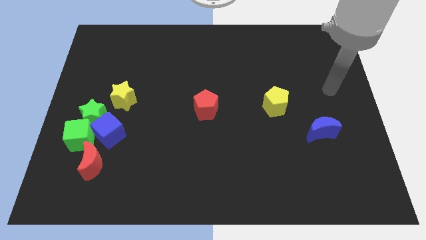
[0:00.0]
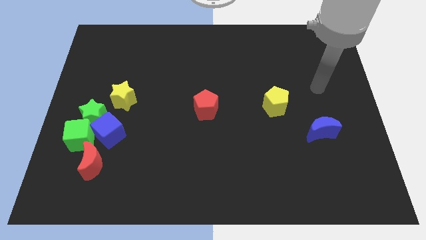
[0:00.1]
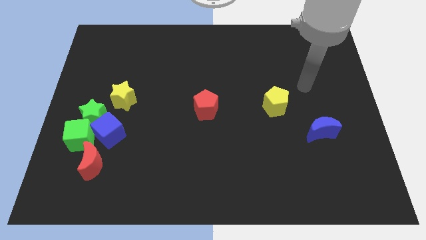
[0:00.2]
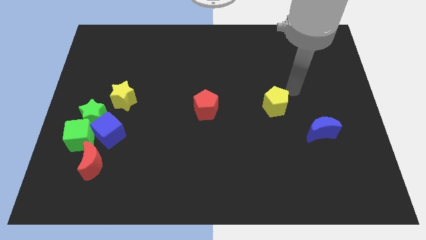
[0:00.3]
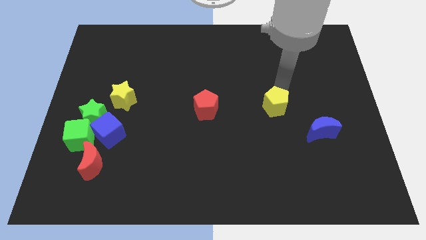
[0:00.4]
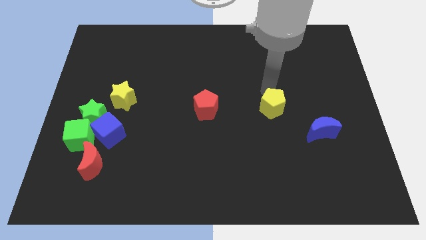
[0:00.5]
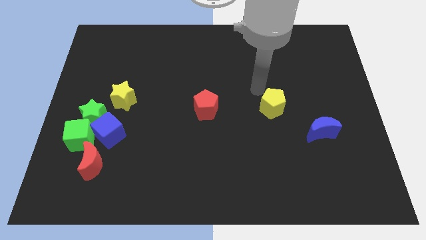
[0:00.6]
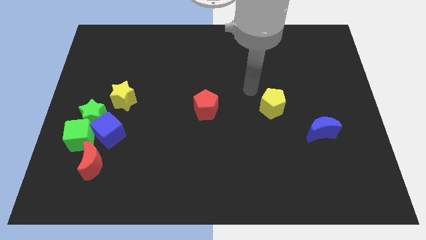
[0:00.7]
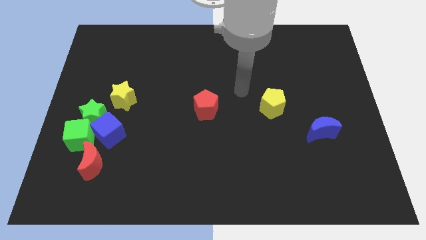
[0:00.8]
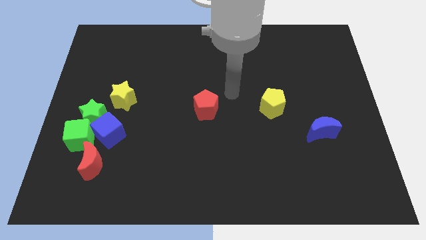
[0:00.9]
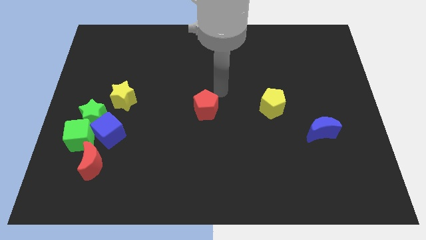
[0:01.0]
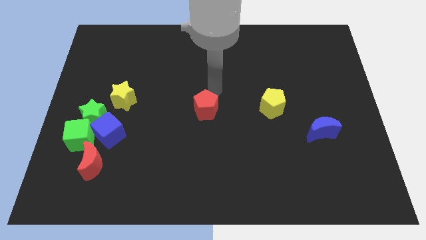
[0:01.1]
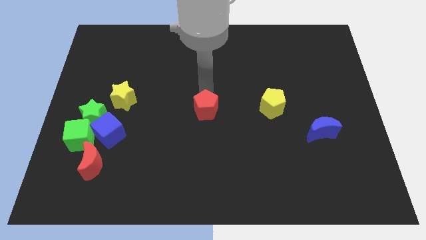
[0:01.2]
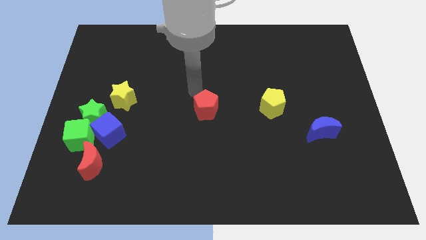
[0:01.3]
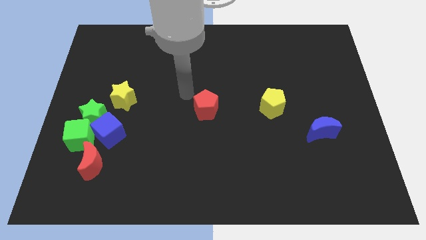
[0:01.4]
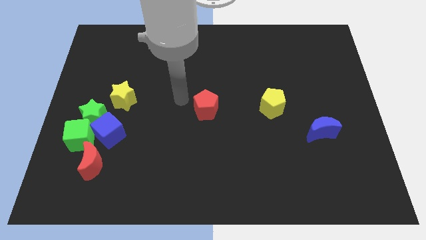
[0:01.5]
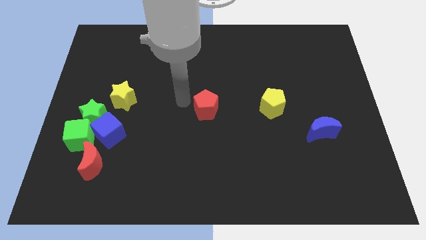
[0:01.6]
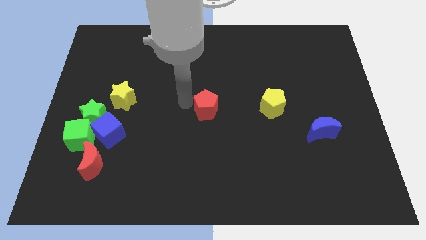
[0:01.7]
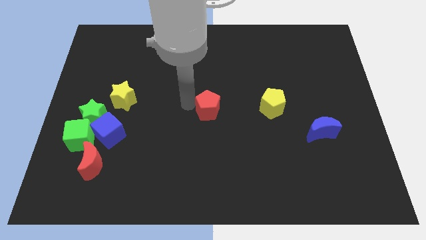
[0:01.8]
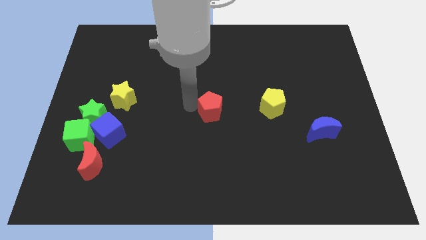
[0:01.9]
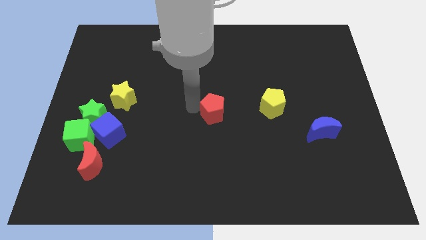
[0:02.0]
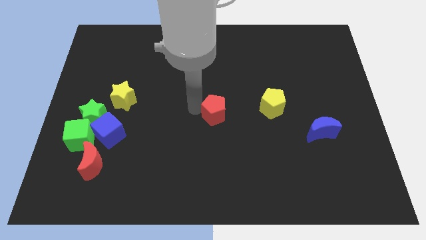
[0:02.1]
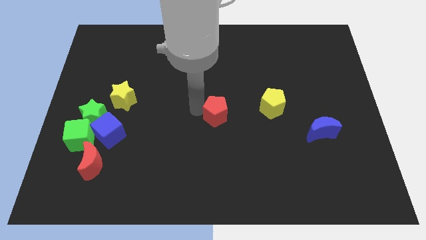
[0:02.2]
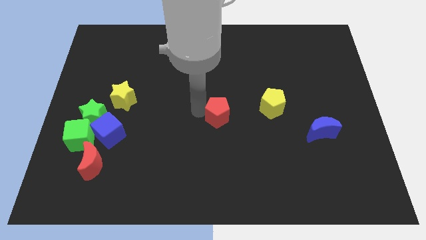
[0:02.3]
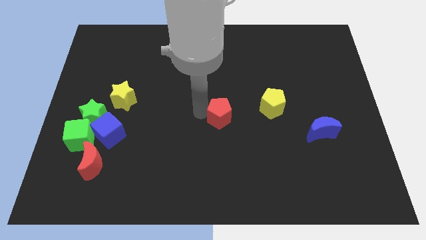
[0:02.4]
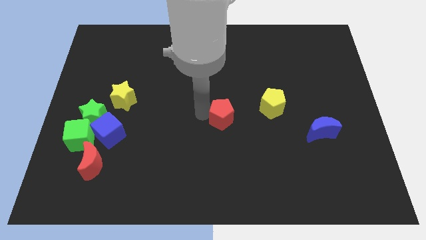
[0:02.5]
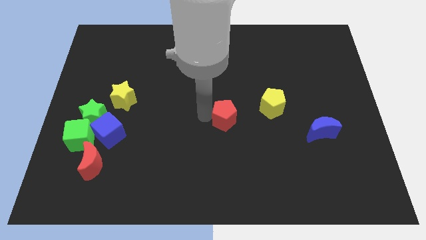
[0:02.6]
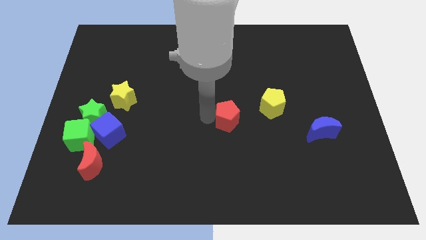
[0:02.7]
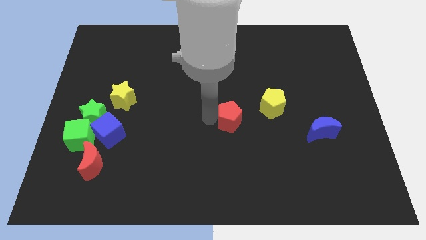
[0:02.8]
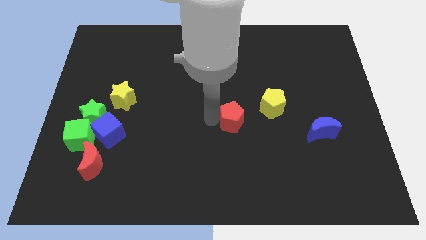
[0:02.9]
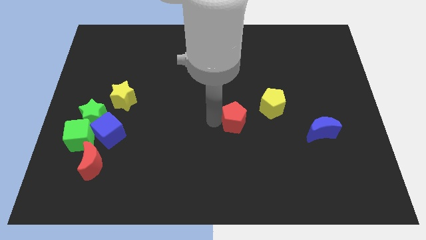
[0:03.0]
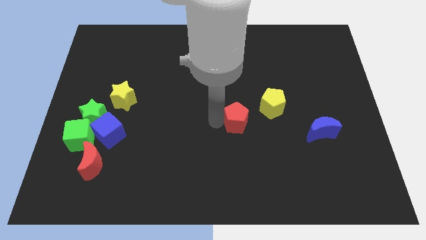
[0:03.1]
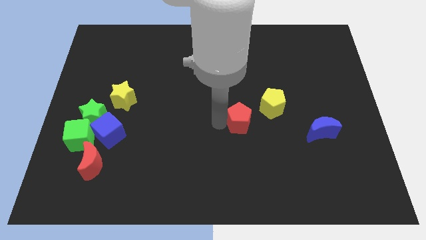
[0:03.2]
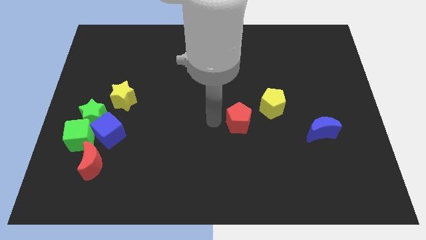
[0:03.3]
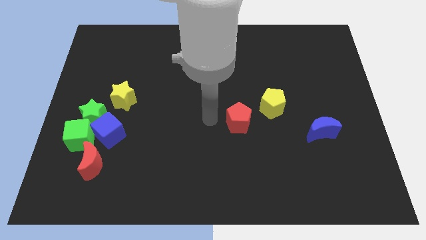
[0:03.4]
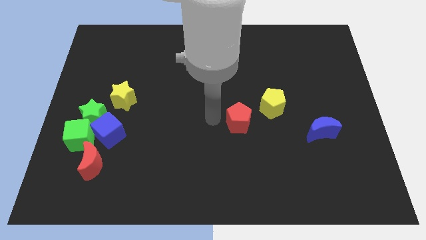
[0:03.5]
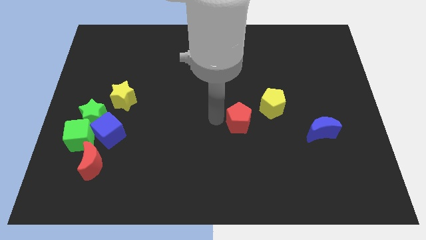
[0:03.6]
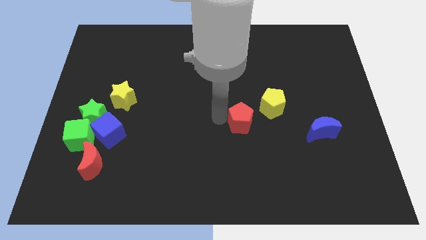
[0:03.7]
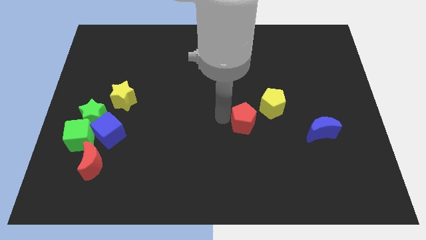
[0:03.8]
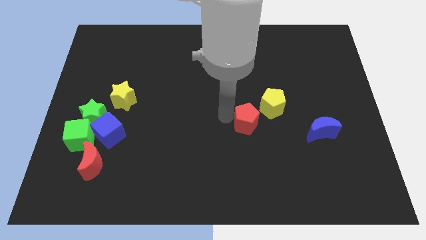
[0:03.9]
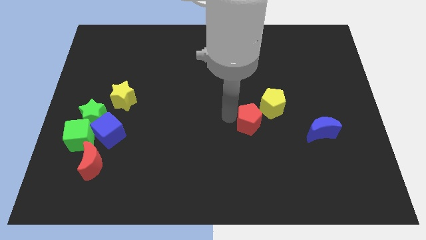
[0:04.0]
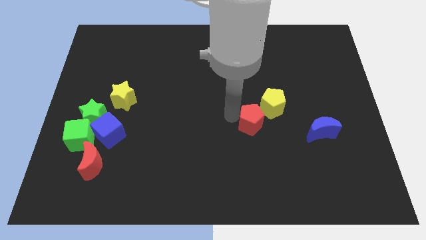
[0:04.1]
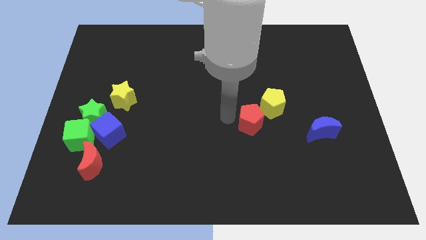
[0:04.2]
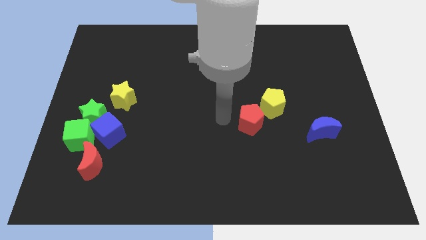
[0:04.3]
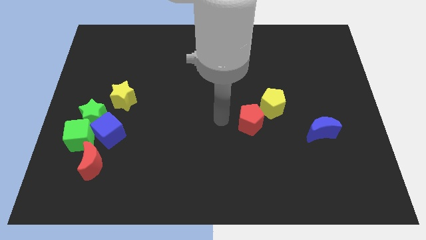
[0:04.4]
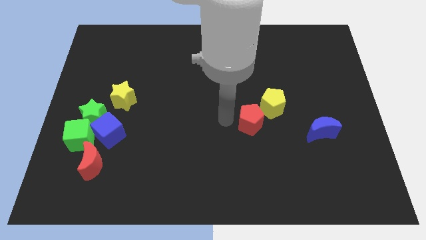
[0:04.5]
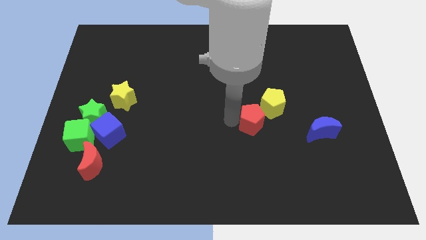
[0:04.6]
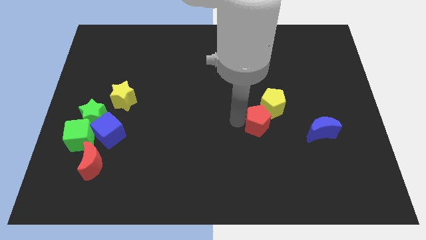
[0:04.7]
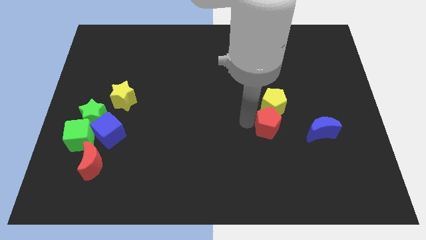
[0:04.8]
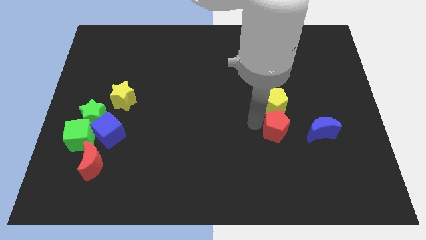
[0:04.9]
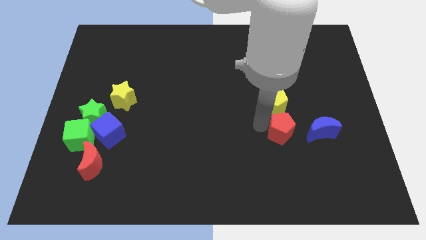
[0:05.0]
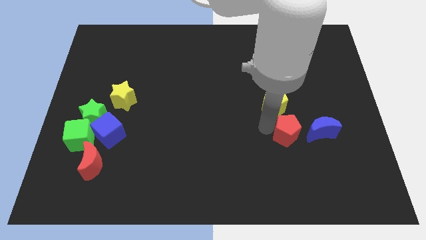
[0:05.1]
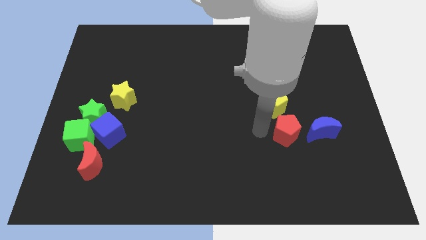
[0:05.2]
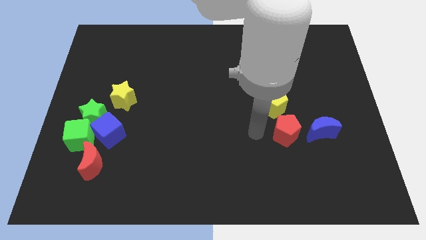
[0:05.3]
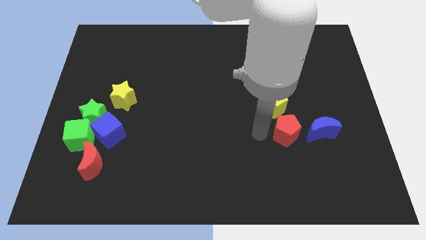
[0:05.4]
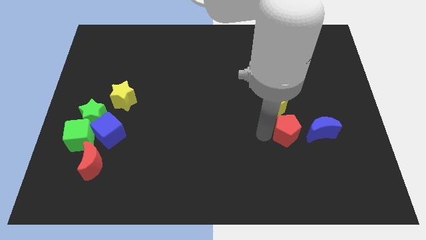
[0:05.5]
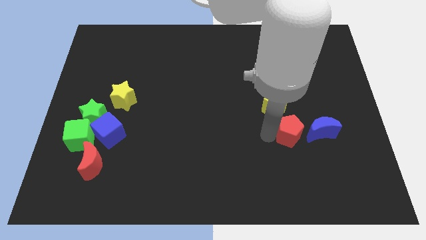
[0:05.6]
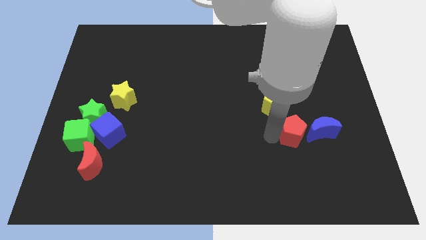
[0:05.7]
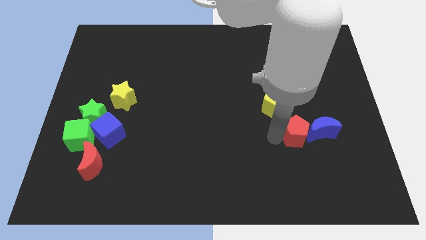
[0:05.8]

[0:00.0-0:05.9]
push the red pentagon to the blue moon

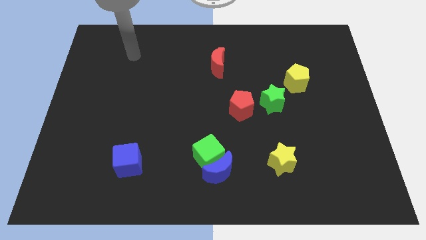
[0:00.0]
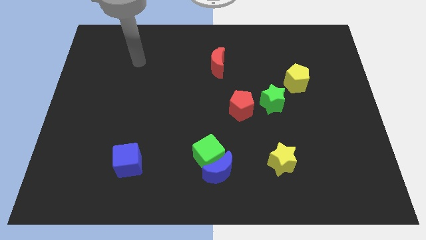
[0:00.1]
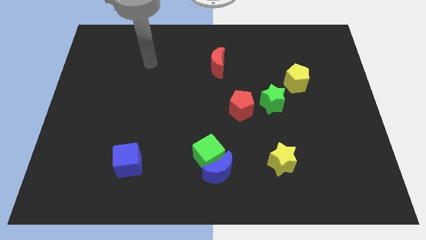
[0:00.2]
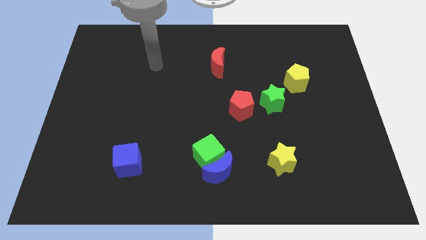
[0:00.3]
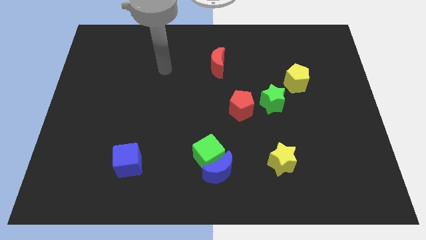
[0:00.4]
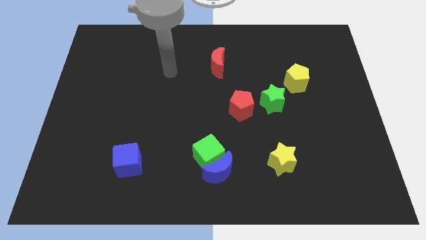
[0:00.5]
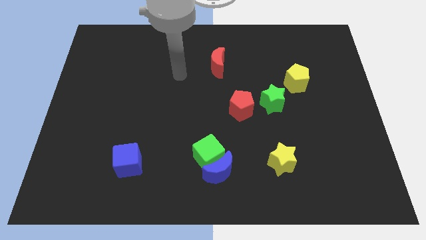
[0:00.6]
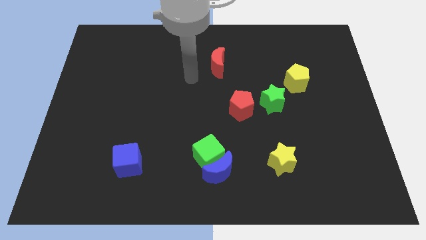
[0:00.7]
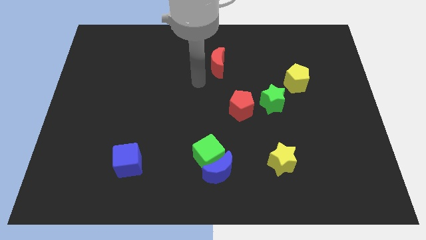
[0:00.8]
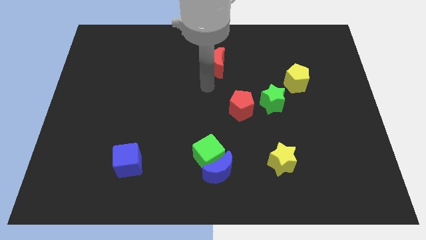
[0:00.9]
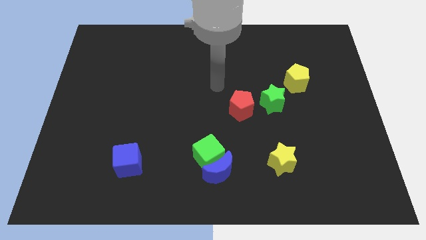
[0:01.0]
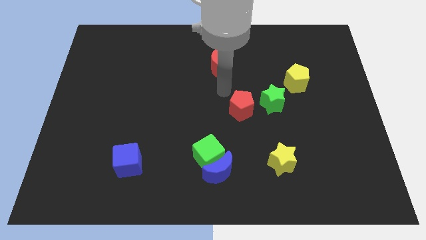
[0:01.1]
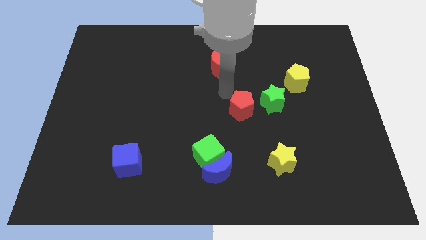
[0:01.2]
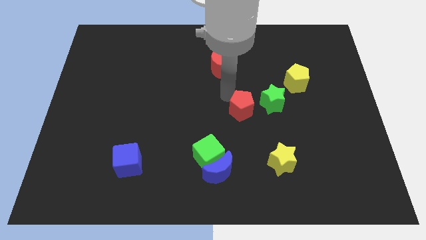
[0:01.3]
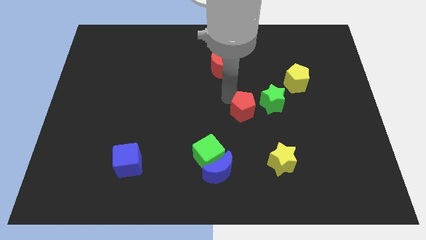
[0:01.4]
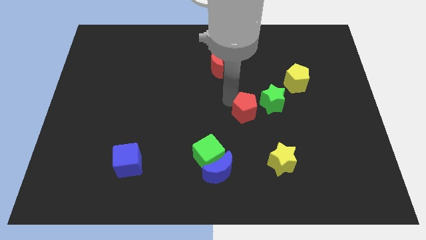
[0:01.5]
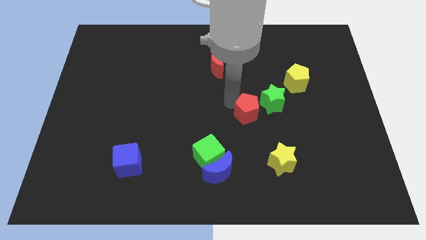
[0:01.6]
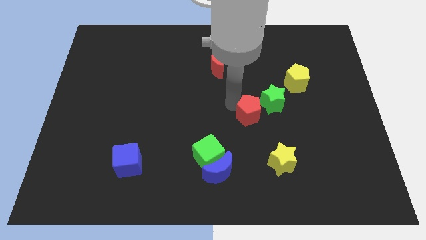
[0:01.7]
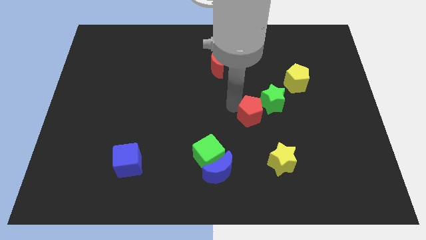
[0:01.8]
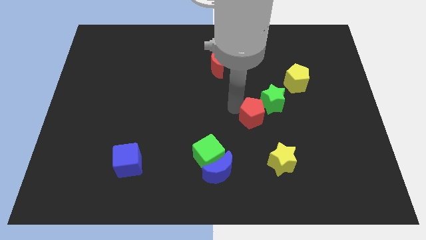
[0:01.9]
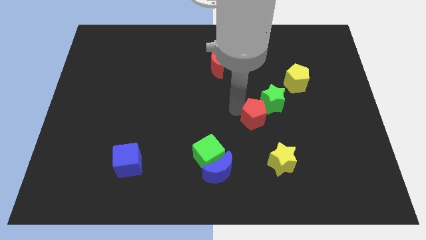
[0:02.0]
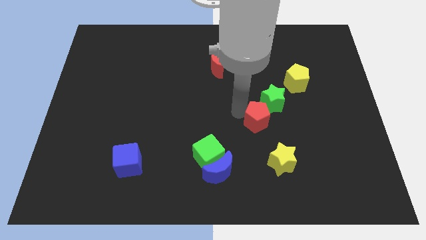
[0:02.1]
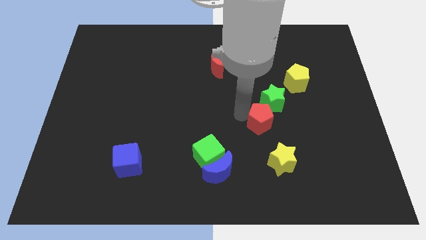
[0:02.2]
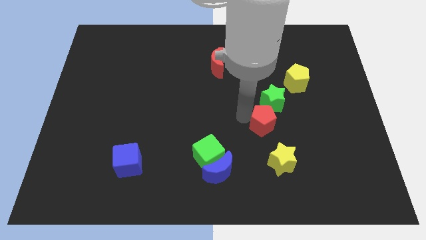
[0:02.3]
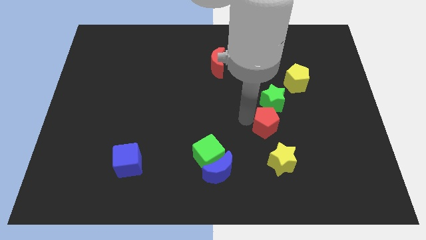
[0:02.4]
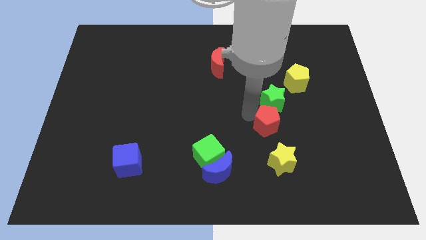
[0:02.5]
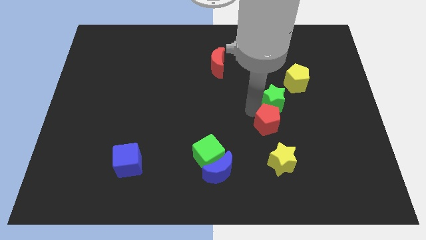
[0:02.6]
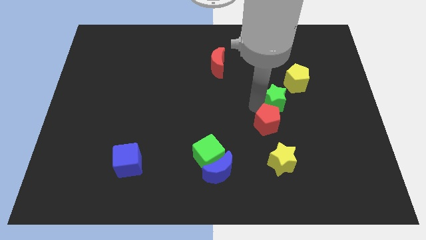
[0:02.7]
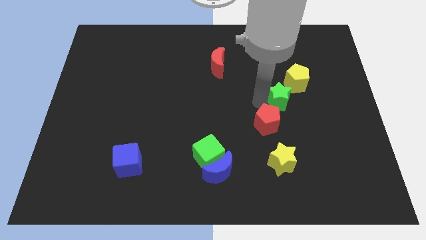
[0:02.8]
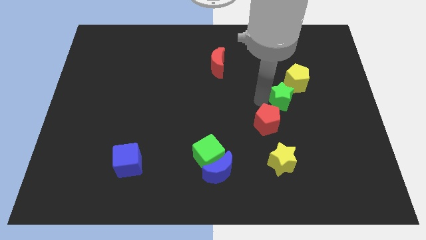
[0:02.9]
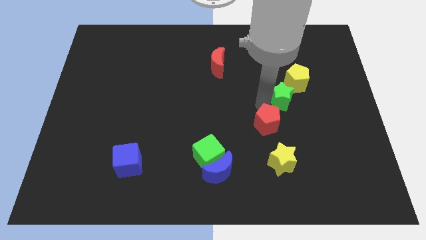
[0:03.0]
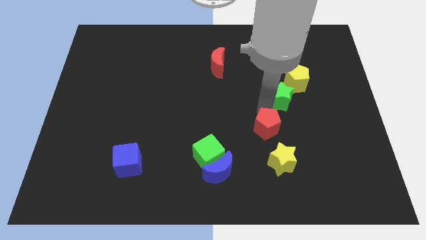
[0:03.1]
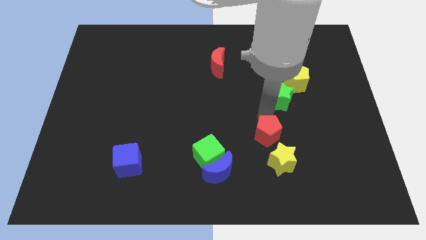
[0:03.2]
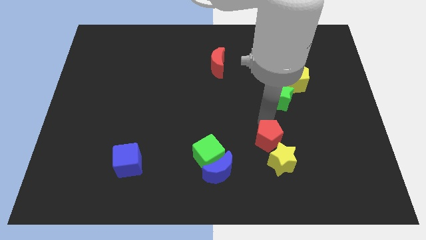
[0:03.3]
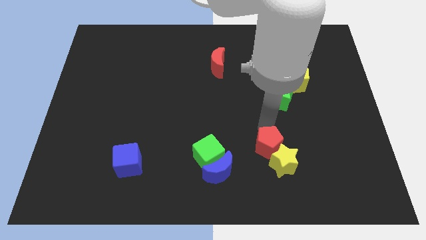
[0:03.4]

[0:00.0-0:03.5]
put the red pentagon to the yellow star
